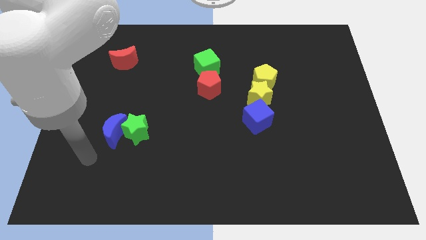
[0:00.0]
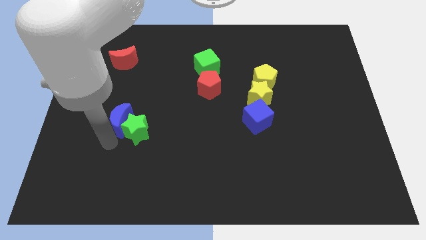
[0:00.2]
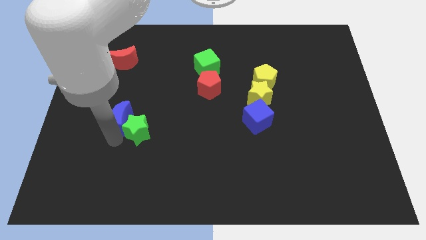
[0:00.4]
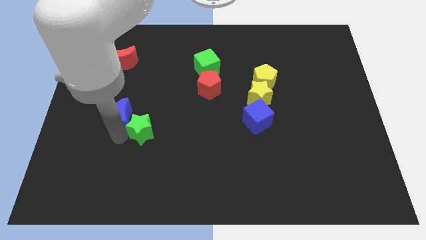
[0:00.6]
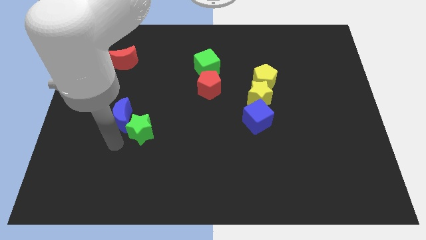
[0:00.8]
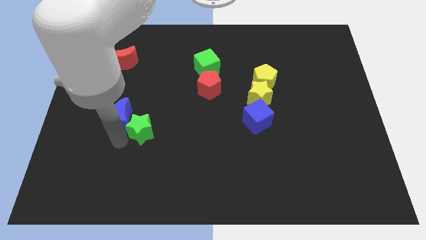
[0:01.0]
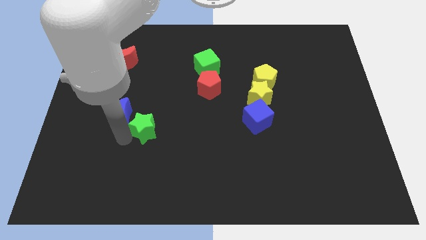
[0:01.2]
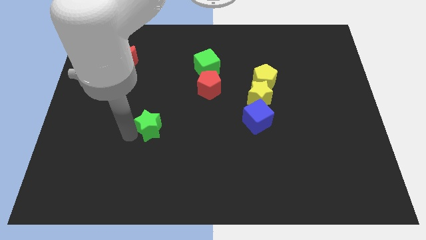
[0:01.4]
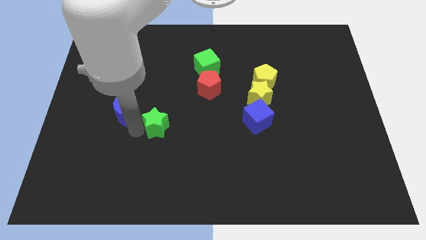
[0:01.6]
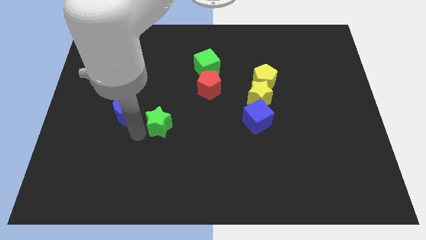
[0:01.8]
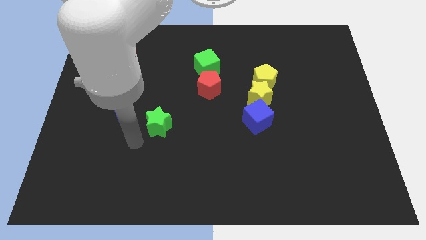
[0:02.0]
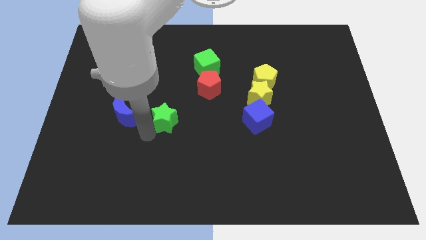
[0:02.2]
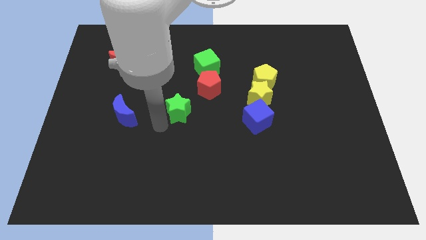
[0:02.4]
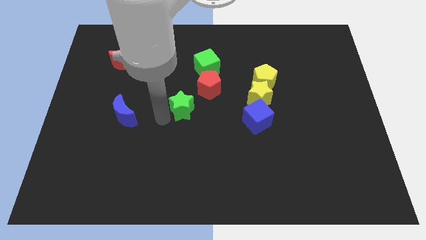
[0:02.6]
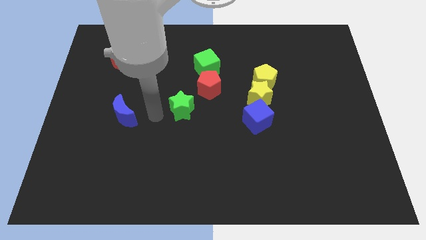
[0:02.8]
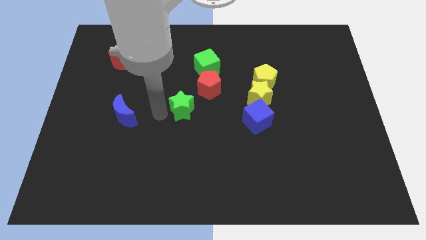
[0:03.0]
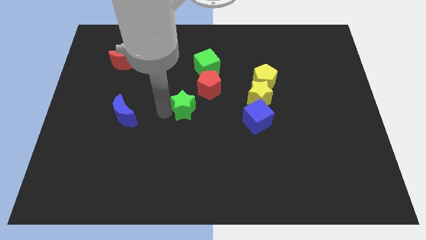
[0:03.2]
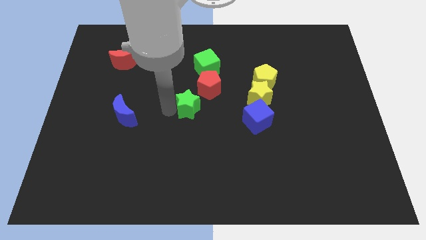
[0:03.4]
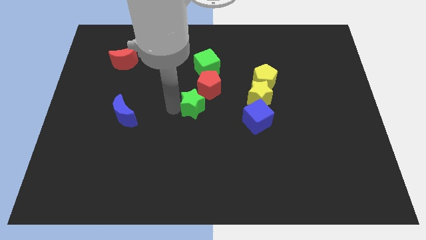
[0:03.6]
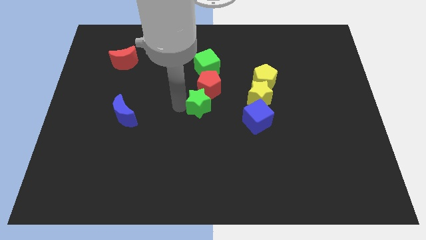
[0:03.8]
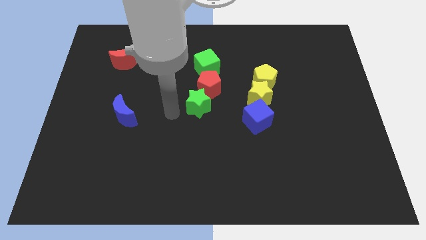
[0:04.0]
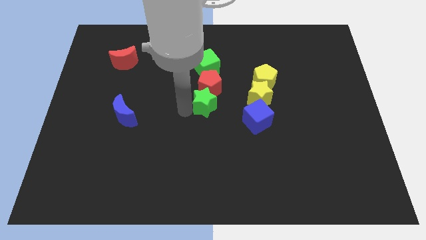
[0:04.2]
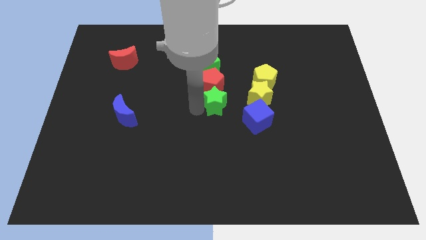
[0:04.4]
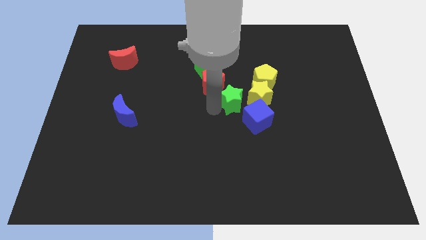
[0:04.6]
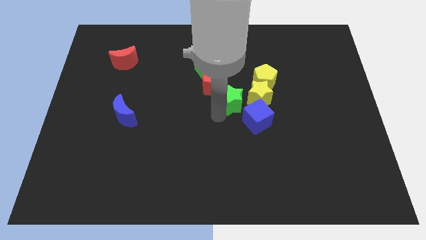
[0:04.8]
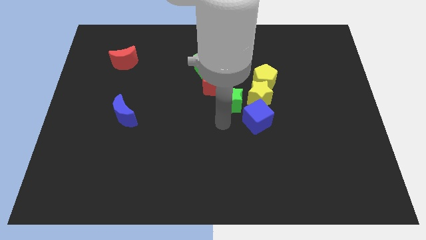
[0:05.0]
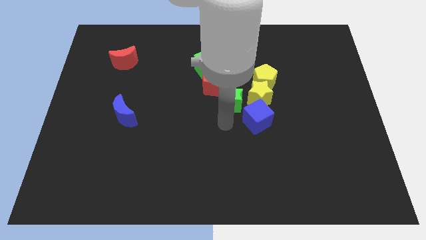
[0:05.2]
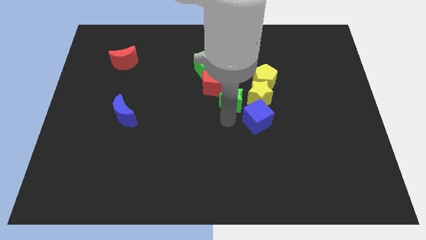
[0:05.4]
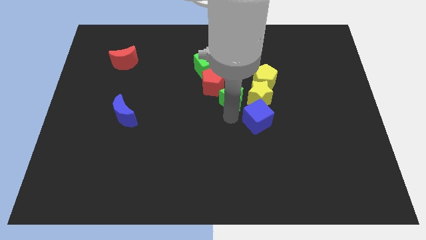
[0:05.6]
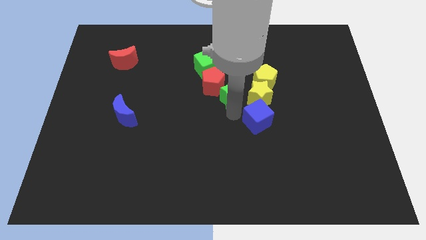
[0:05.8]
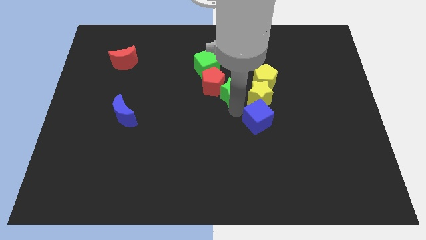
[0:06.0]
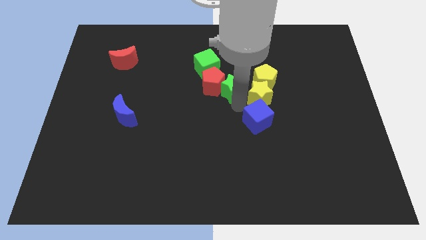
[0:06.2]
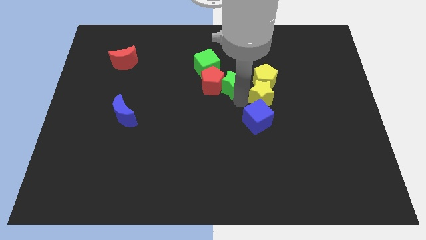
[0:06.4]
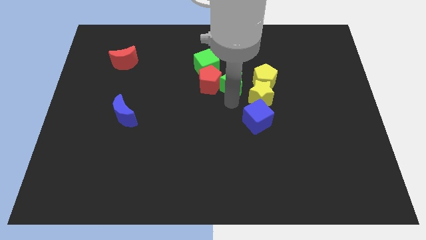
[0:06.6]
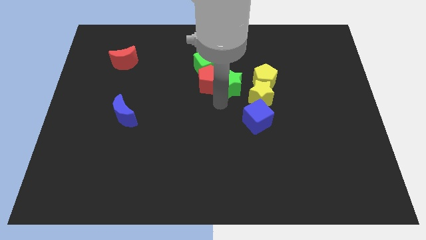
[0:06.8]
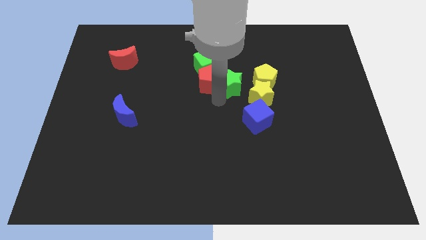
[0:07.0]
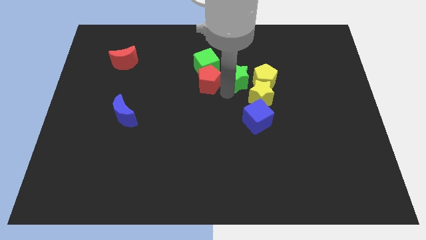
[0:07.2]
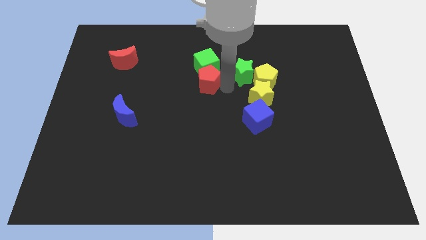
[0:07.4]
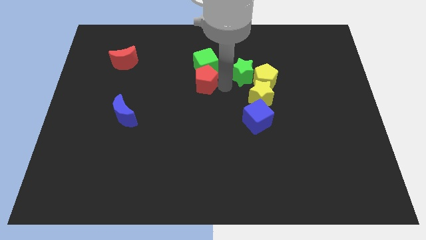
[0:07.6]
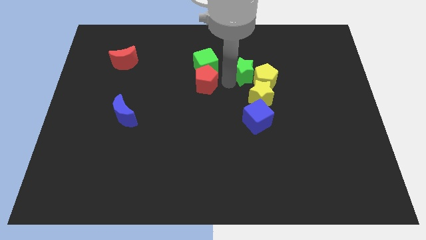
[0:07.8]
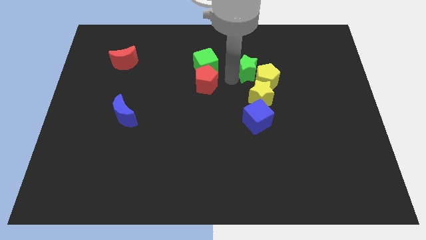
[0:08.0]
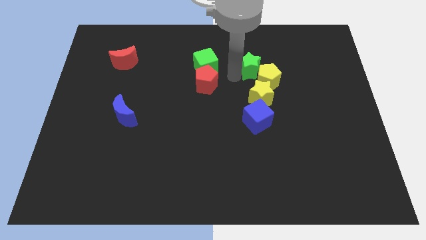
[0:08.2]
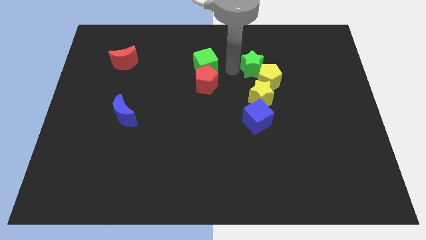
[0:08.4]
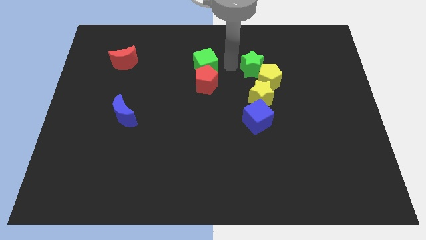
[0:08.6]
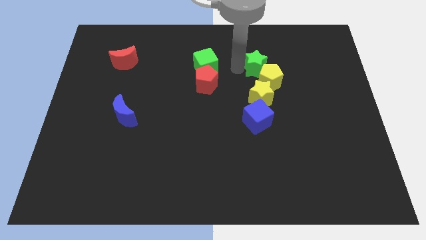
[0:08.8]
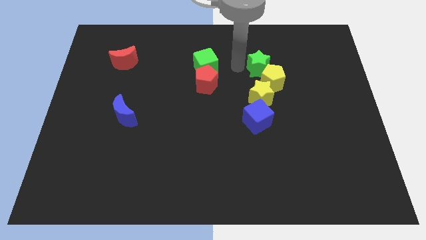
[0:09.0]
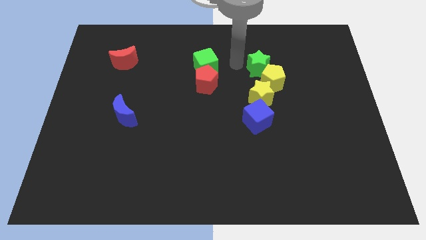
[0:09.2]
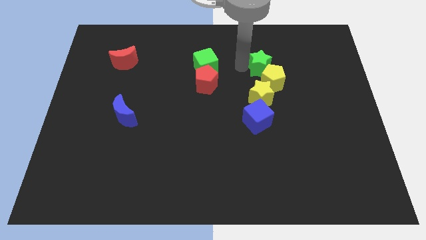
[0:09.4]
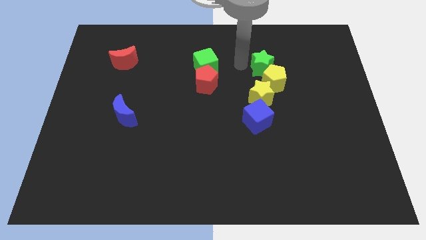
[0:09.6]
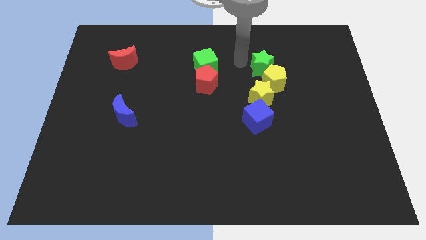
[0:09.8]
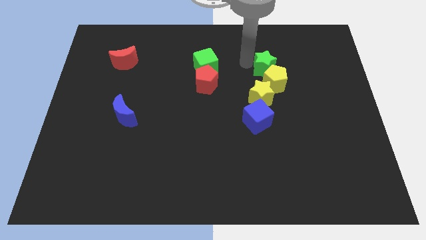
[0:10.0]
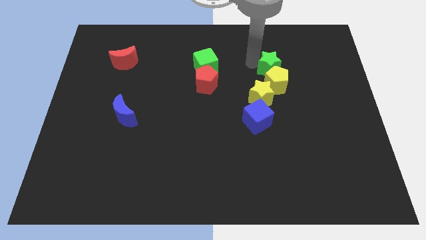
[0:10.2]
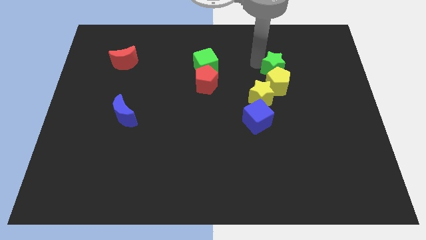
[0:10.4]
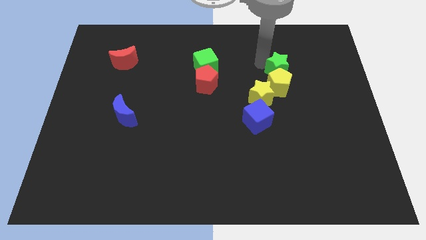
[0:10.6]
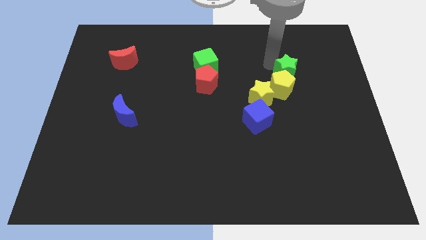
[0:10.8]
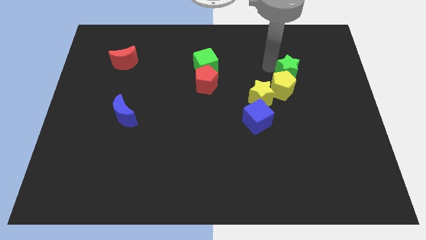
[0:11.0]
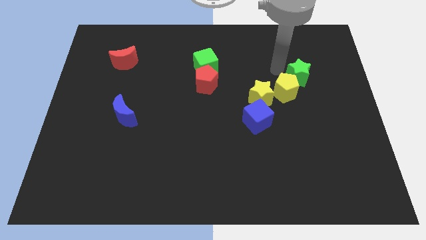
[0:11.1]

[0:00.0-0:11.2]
move the green star right of the yellow pentagon

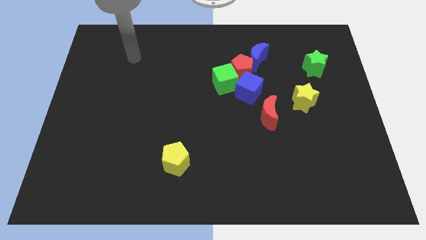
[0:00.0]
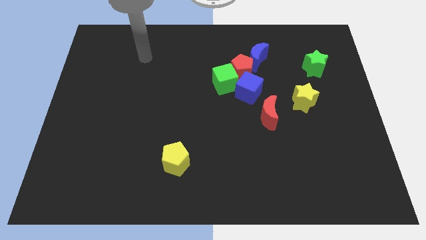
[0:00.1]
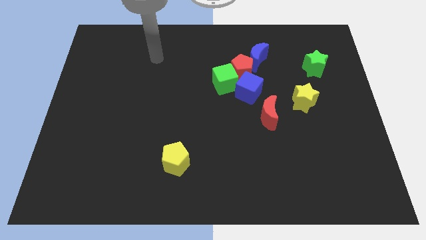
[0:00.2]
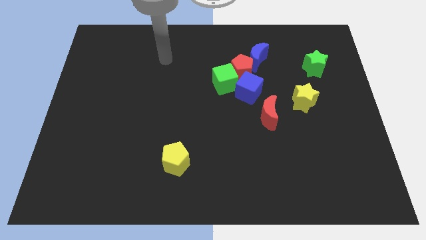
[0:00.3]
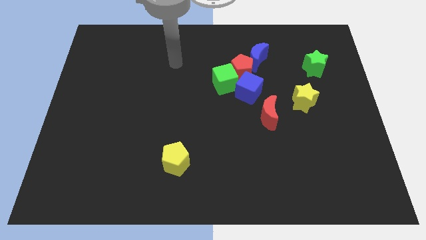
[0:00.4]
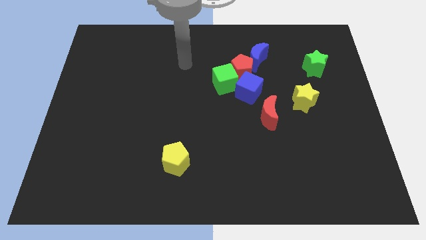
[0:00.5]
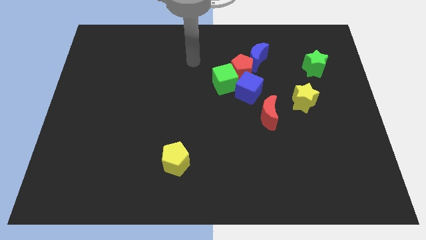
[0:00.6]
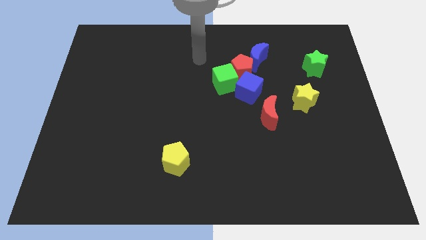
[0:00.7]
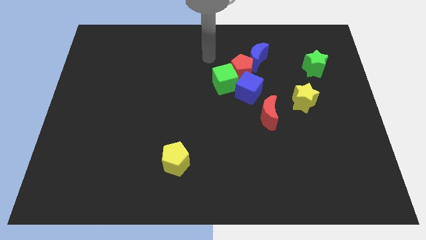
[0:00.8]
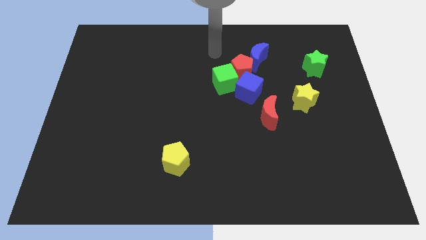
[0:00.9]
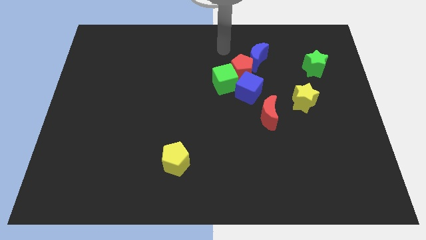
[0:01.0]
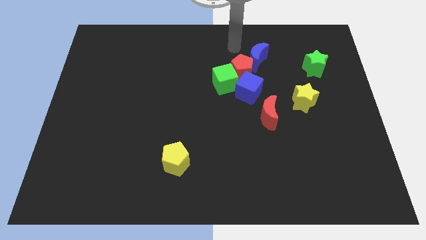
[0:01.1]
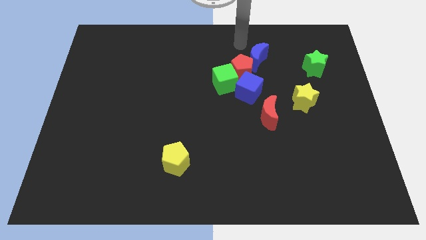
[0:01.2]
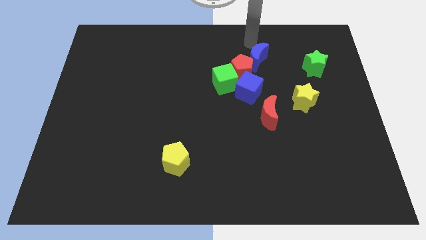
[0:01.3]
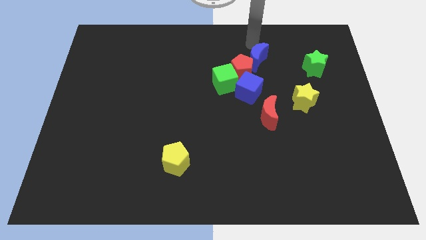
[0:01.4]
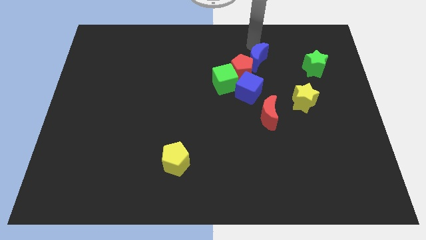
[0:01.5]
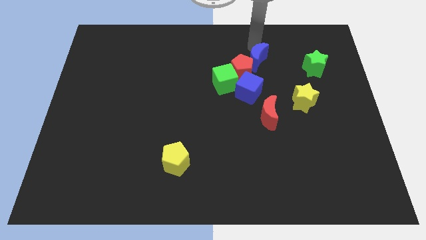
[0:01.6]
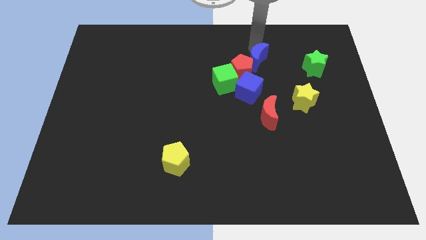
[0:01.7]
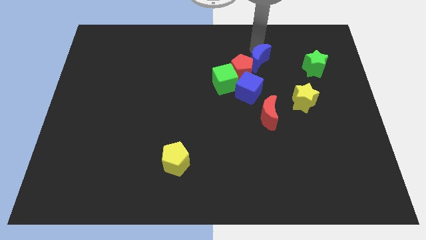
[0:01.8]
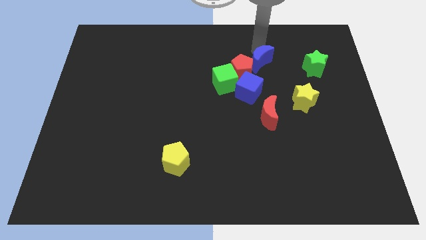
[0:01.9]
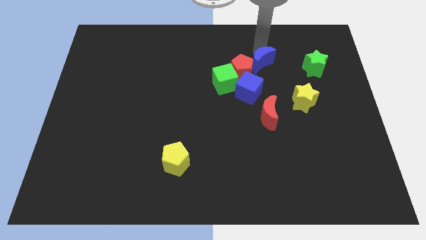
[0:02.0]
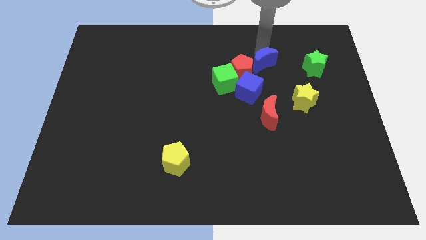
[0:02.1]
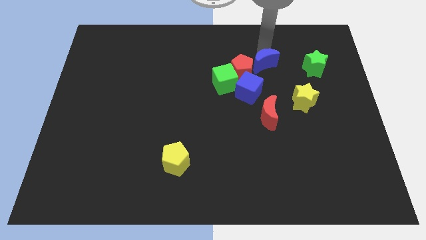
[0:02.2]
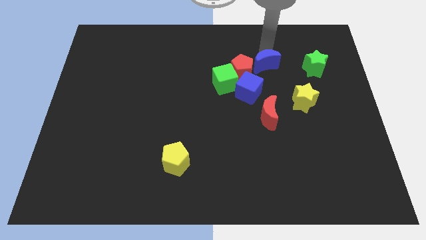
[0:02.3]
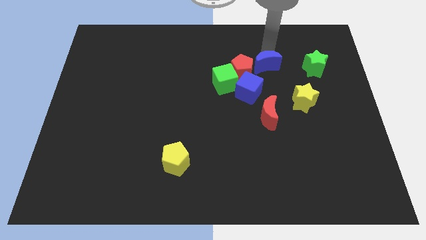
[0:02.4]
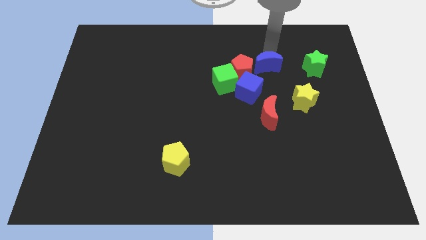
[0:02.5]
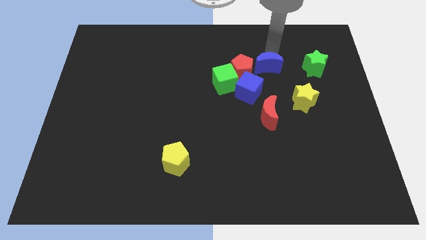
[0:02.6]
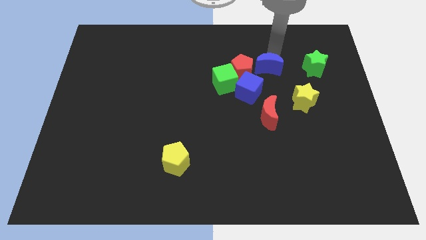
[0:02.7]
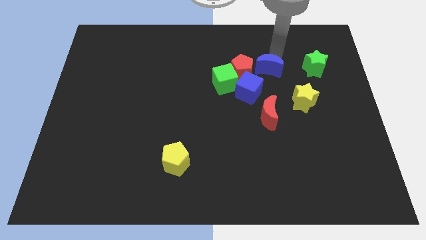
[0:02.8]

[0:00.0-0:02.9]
slide the blue moon to the right of the green cube
